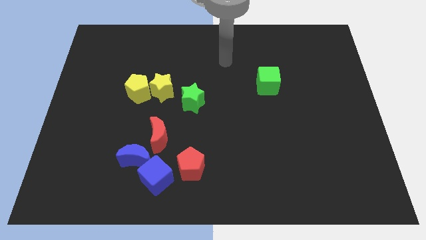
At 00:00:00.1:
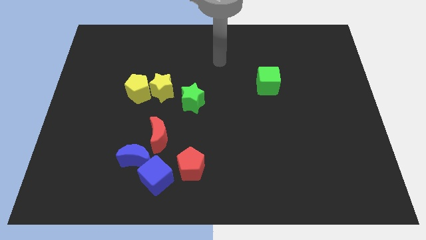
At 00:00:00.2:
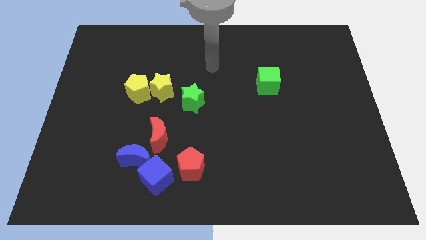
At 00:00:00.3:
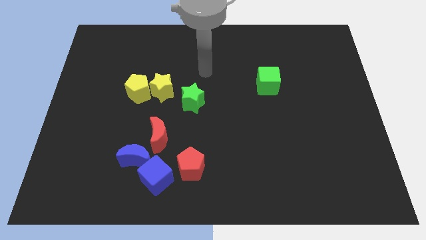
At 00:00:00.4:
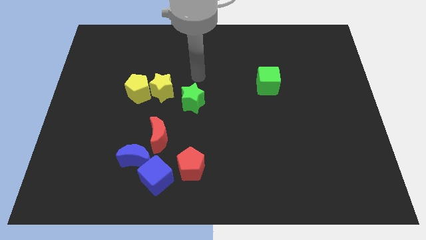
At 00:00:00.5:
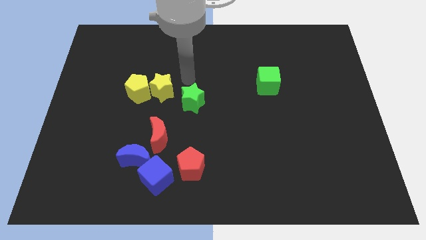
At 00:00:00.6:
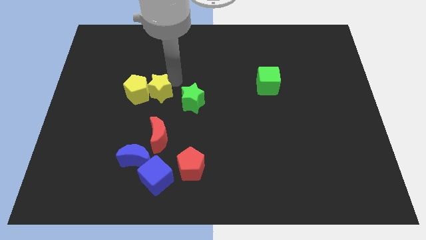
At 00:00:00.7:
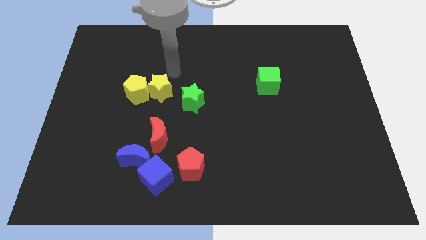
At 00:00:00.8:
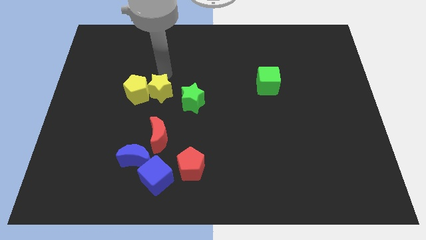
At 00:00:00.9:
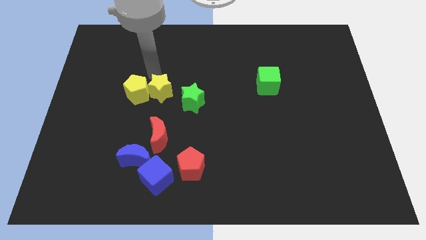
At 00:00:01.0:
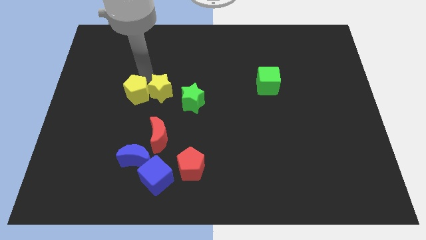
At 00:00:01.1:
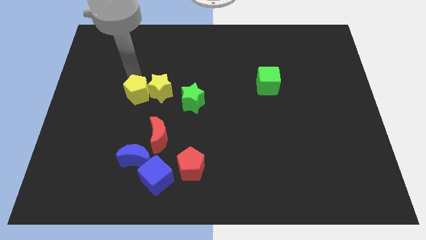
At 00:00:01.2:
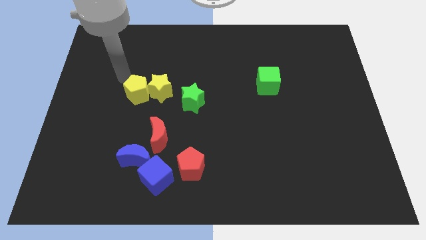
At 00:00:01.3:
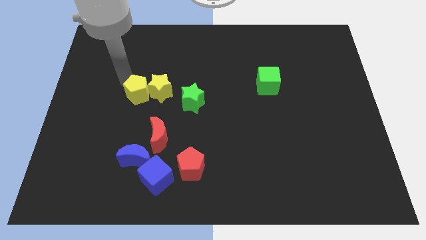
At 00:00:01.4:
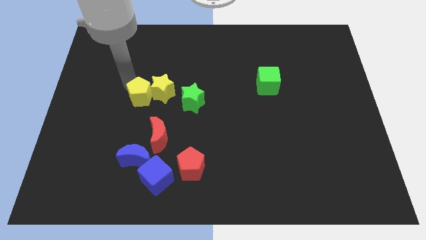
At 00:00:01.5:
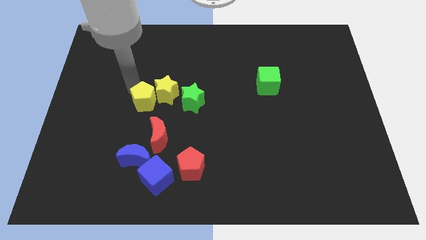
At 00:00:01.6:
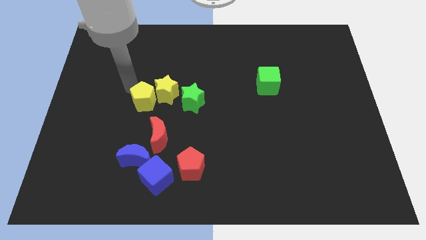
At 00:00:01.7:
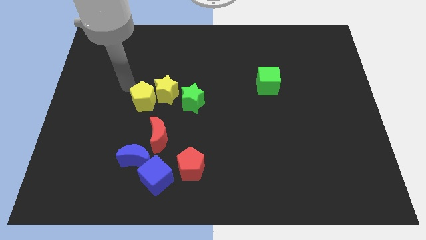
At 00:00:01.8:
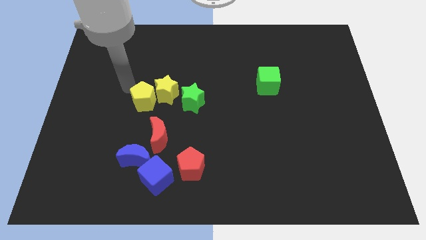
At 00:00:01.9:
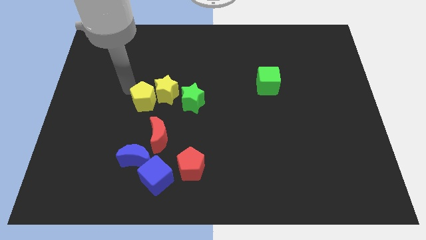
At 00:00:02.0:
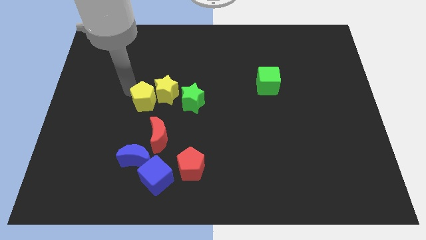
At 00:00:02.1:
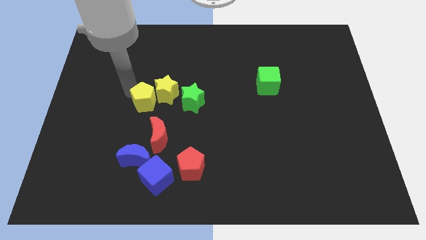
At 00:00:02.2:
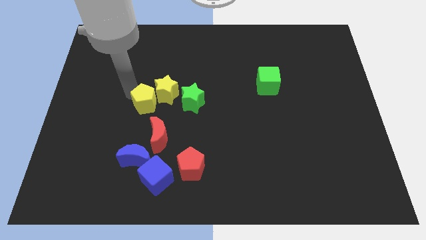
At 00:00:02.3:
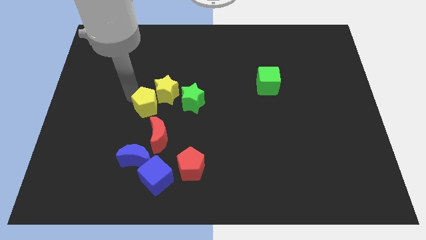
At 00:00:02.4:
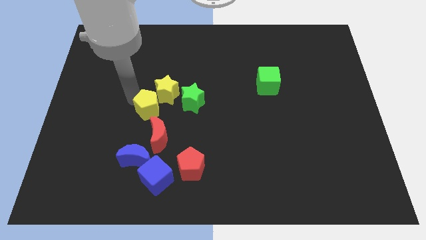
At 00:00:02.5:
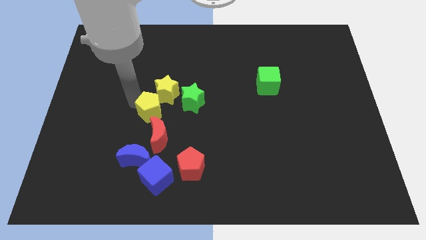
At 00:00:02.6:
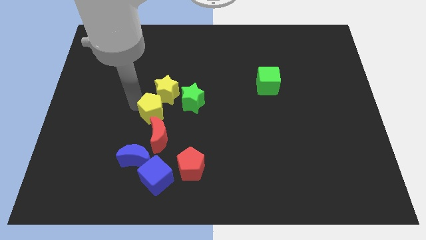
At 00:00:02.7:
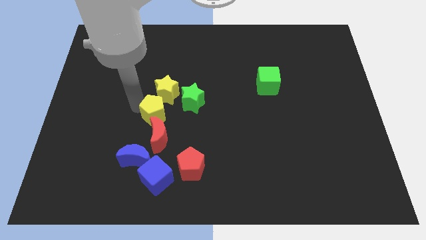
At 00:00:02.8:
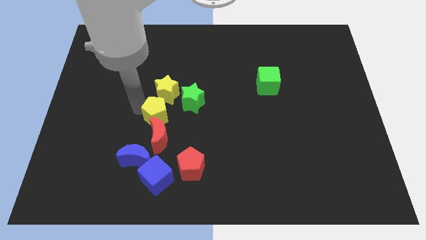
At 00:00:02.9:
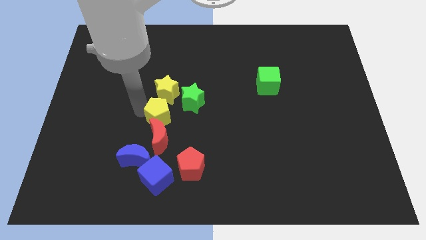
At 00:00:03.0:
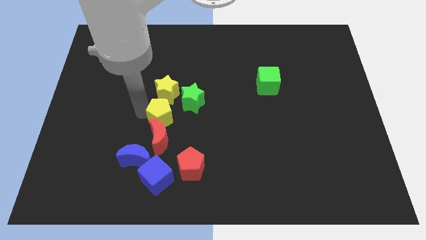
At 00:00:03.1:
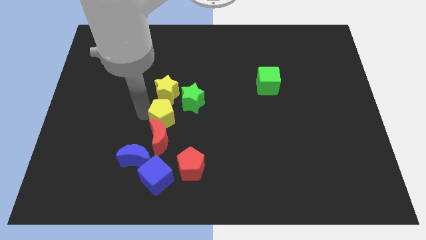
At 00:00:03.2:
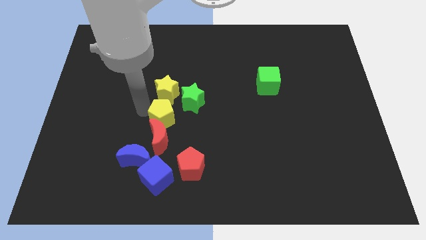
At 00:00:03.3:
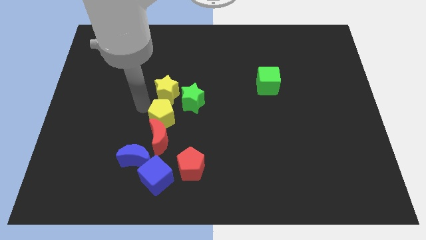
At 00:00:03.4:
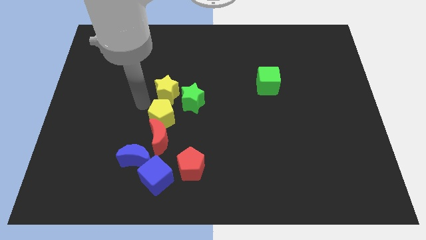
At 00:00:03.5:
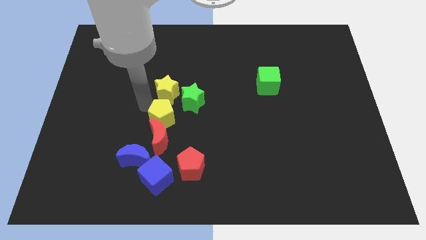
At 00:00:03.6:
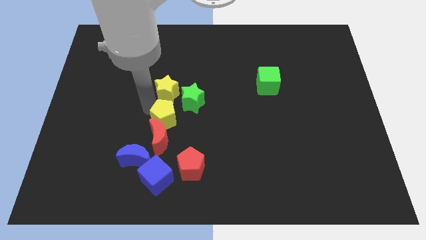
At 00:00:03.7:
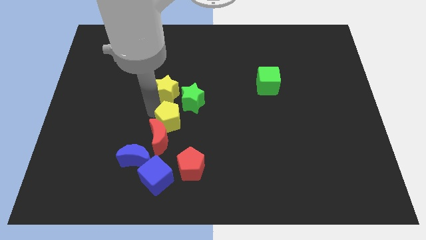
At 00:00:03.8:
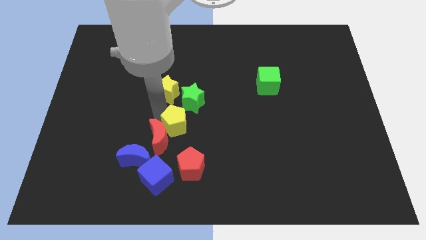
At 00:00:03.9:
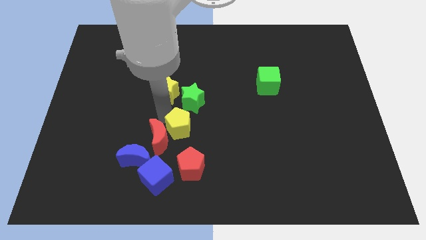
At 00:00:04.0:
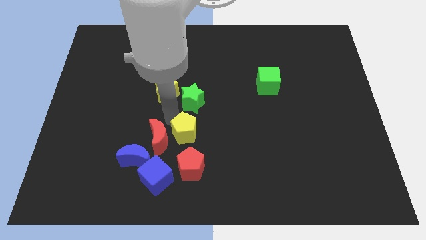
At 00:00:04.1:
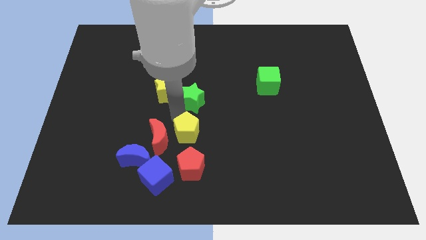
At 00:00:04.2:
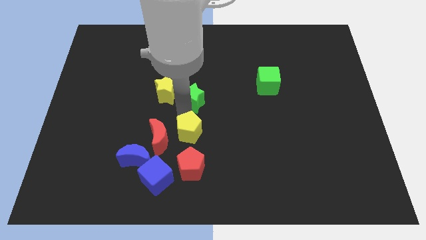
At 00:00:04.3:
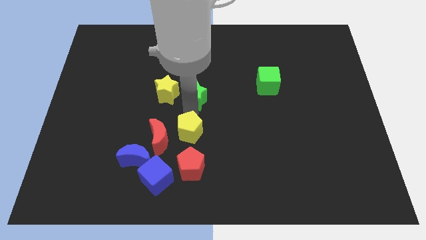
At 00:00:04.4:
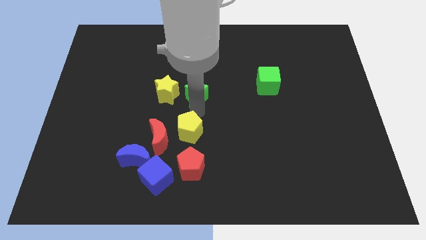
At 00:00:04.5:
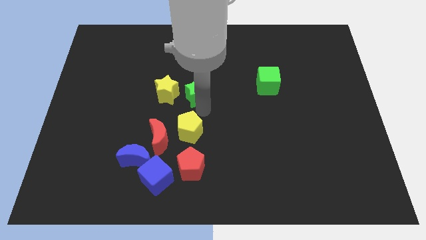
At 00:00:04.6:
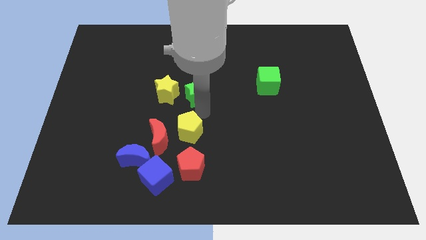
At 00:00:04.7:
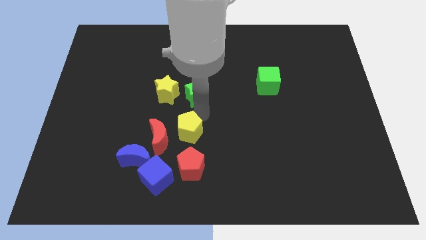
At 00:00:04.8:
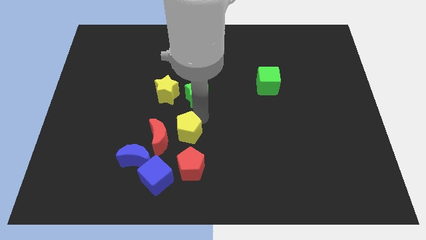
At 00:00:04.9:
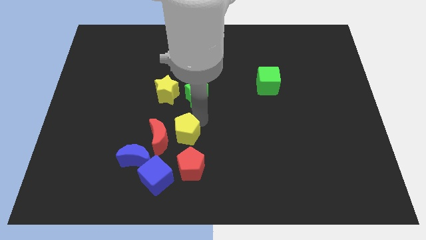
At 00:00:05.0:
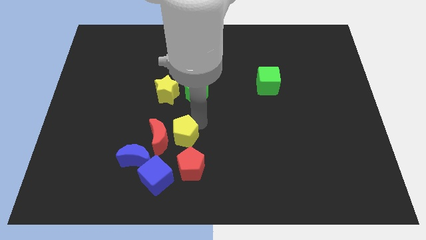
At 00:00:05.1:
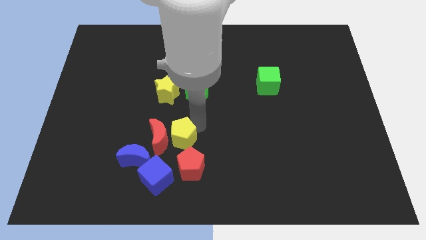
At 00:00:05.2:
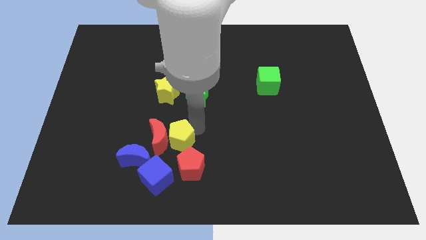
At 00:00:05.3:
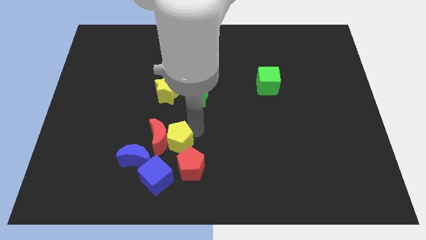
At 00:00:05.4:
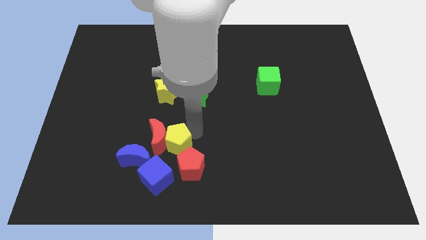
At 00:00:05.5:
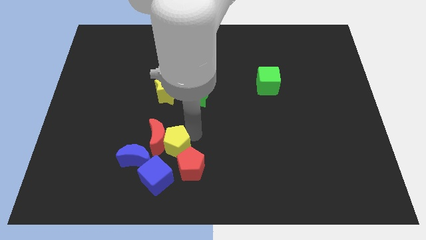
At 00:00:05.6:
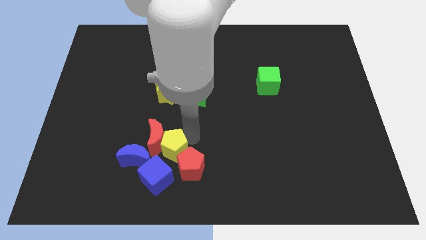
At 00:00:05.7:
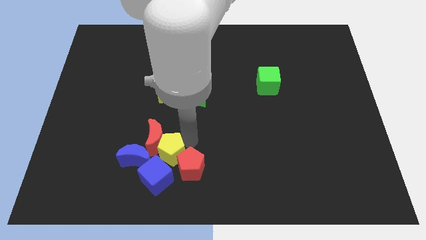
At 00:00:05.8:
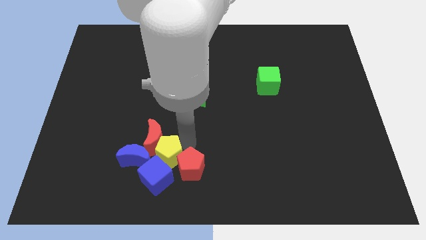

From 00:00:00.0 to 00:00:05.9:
put the yellow pentagon to the blue cube

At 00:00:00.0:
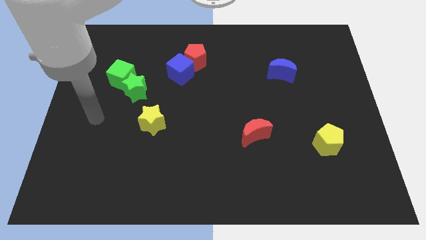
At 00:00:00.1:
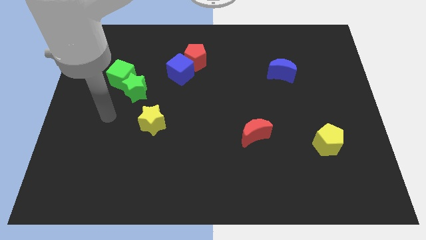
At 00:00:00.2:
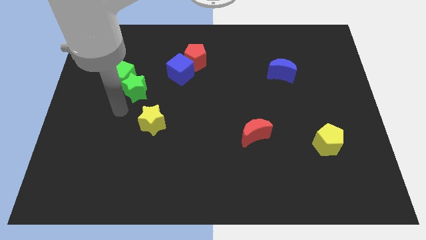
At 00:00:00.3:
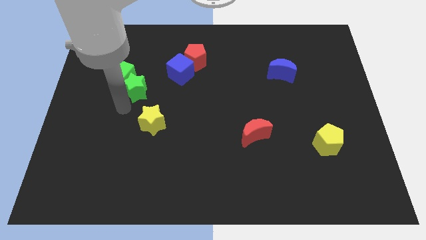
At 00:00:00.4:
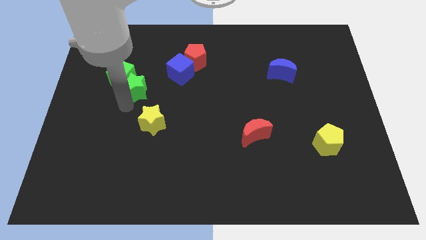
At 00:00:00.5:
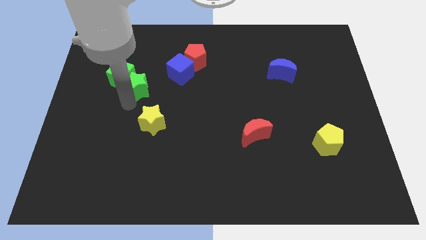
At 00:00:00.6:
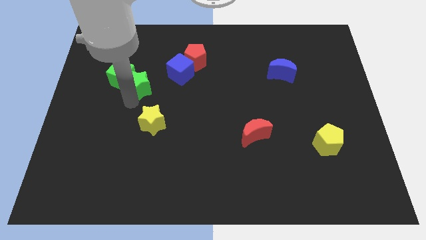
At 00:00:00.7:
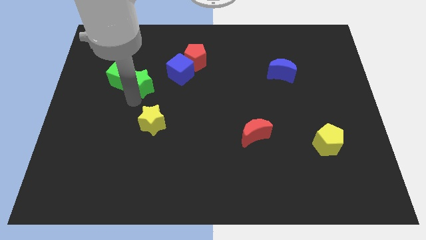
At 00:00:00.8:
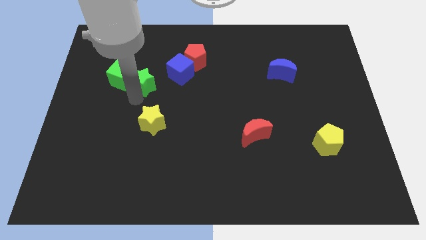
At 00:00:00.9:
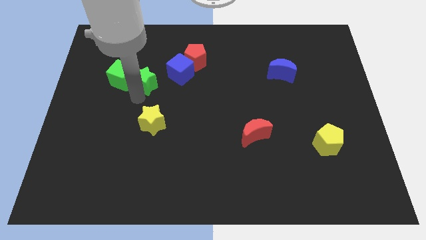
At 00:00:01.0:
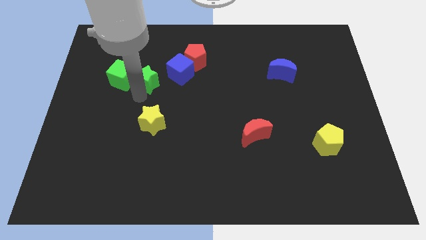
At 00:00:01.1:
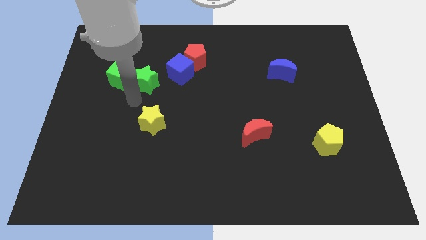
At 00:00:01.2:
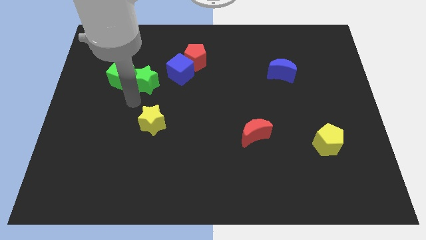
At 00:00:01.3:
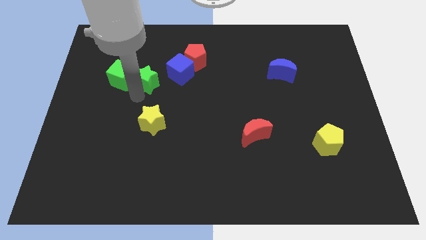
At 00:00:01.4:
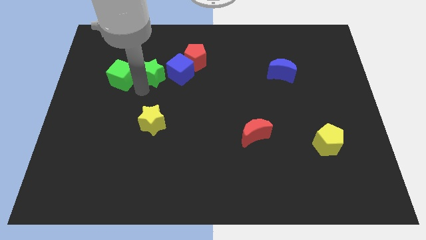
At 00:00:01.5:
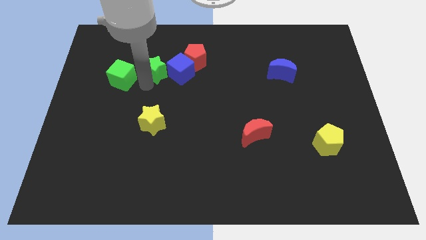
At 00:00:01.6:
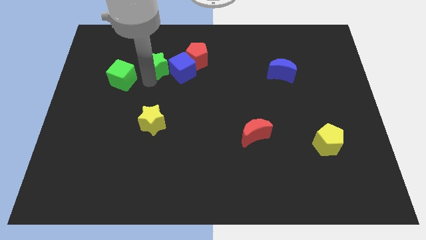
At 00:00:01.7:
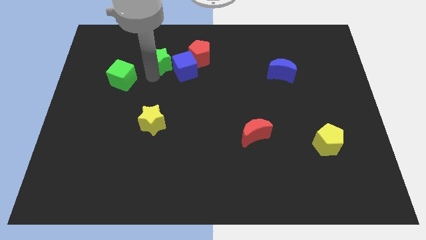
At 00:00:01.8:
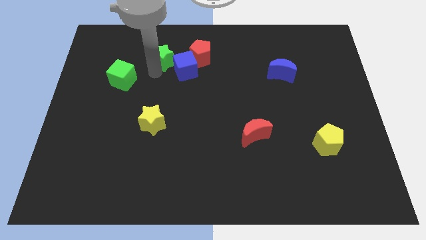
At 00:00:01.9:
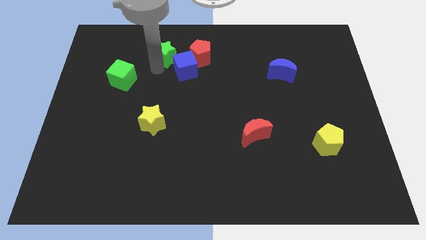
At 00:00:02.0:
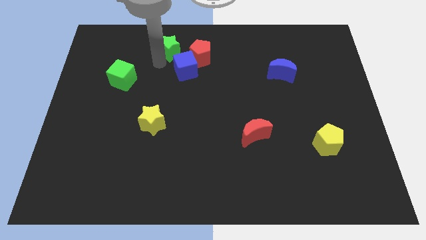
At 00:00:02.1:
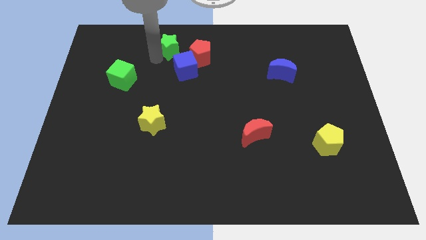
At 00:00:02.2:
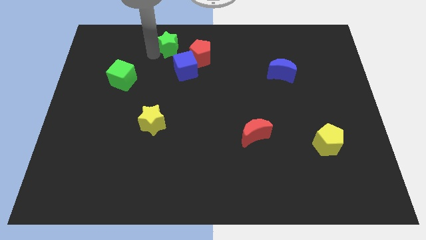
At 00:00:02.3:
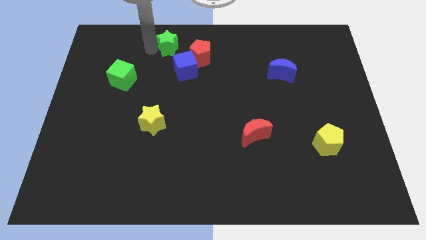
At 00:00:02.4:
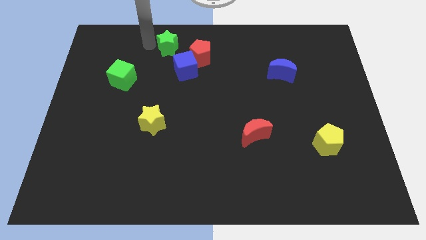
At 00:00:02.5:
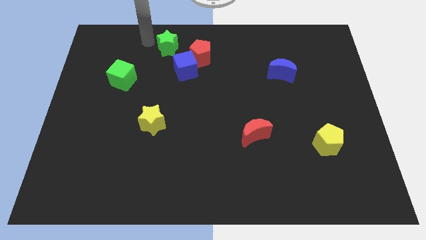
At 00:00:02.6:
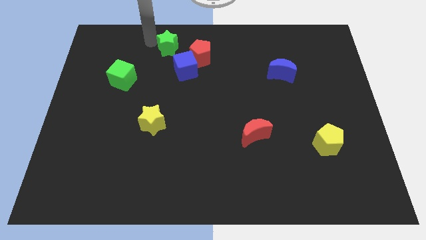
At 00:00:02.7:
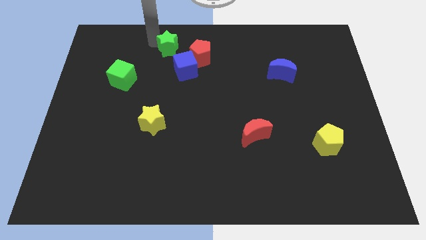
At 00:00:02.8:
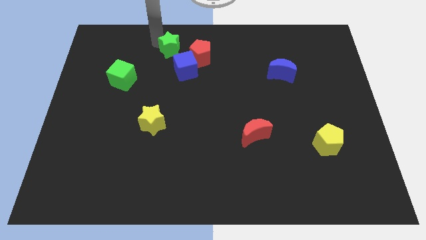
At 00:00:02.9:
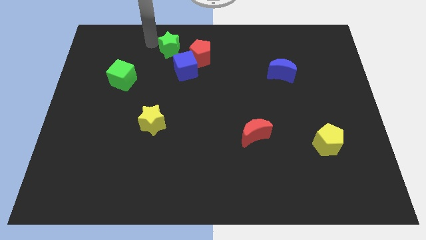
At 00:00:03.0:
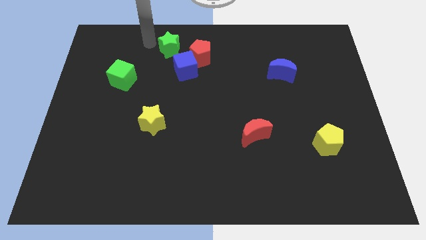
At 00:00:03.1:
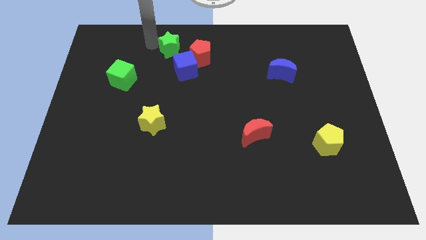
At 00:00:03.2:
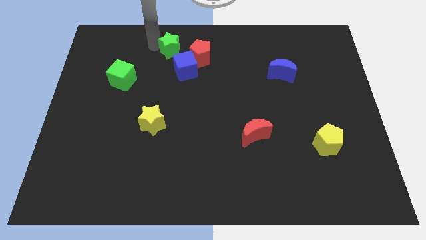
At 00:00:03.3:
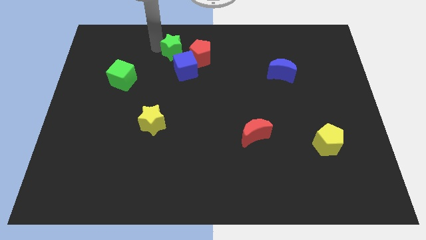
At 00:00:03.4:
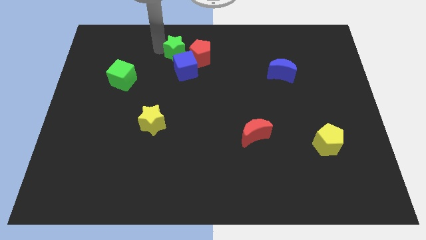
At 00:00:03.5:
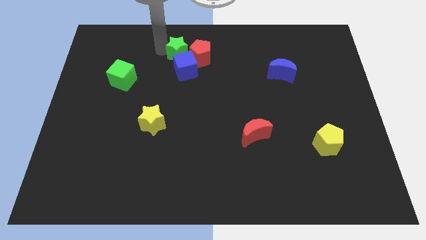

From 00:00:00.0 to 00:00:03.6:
move the green star close to the red pentagon
